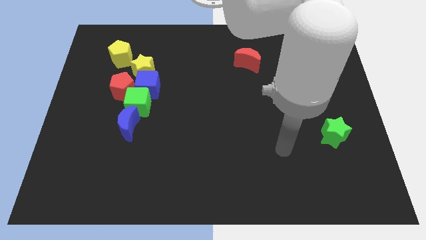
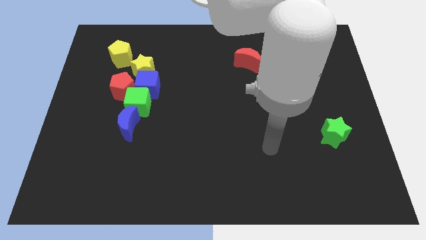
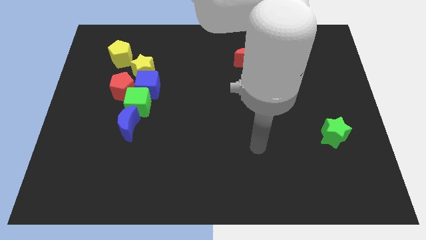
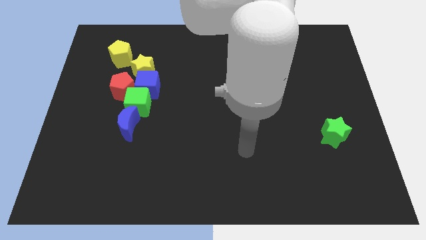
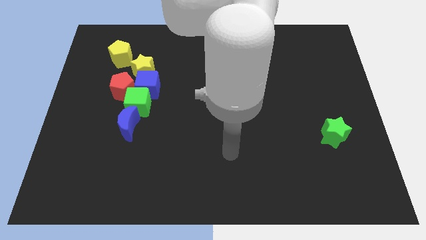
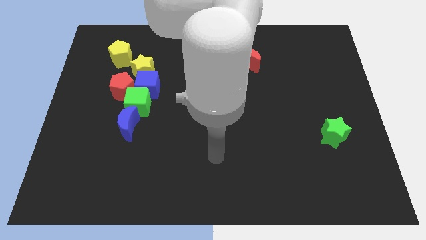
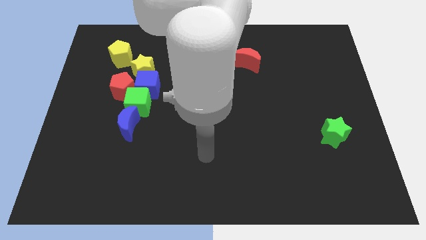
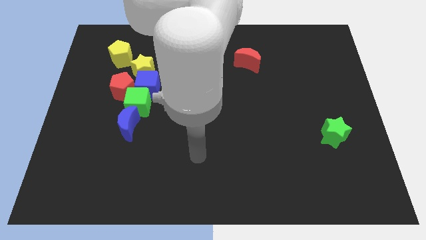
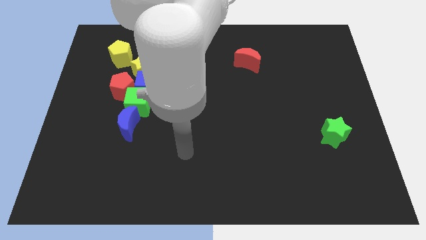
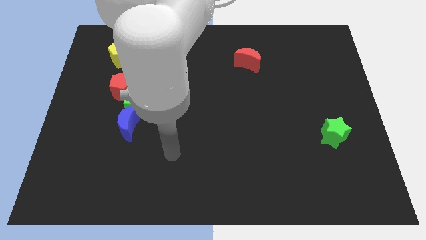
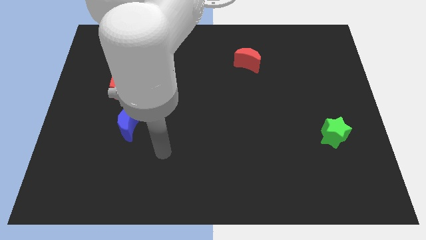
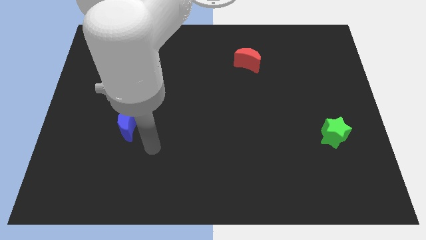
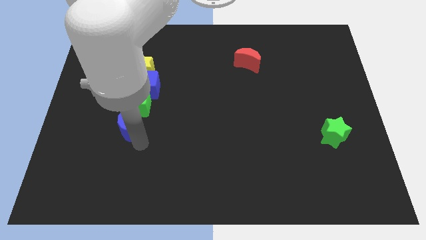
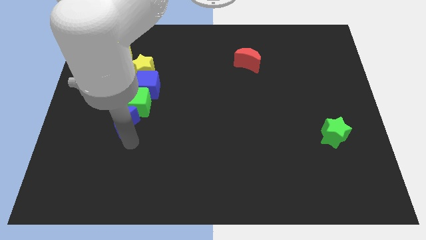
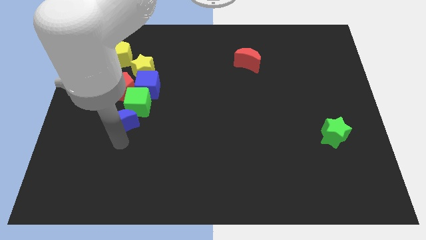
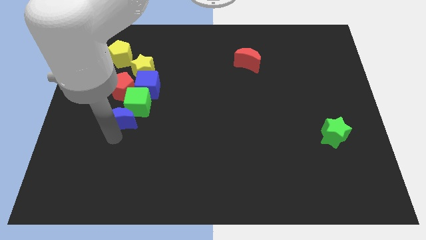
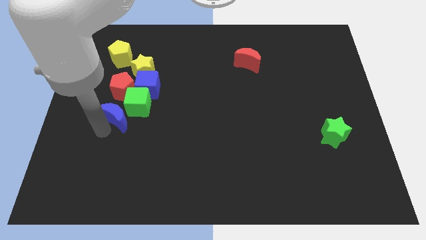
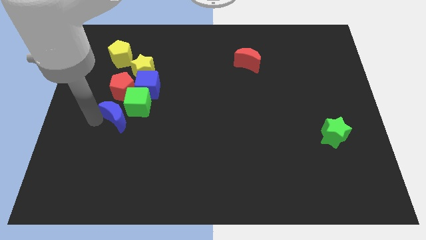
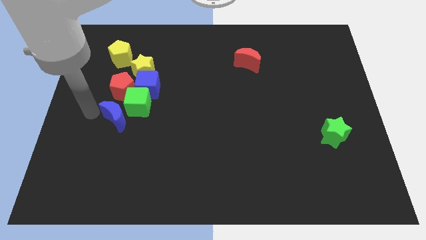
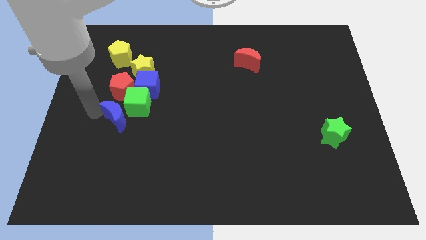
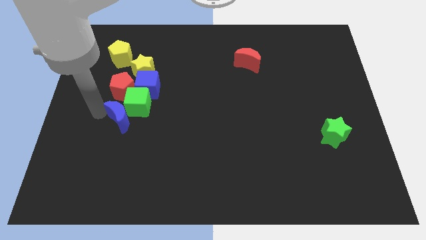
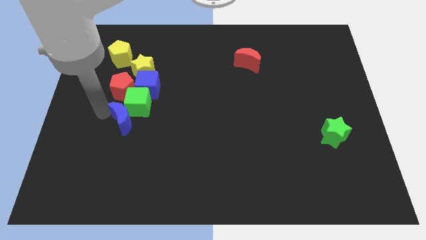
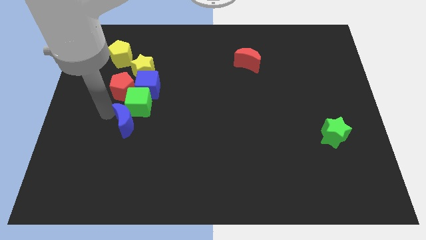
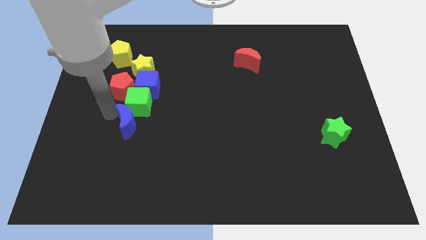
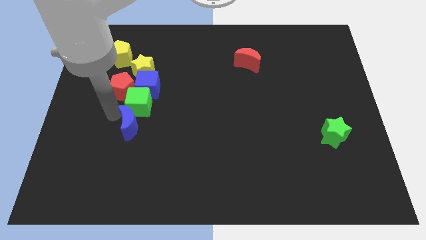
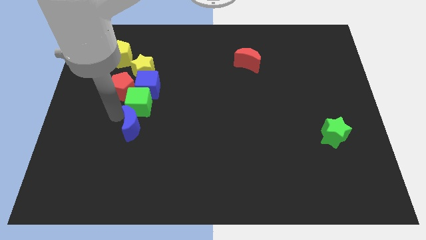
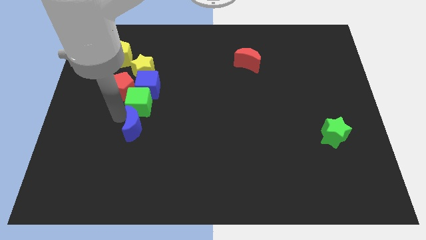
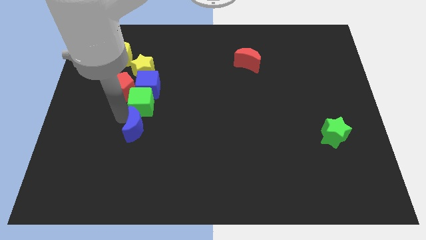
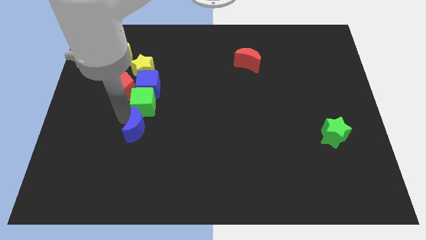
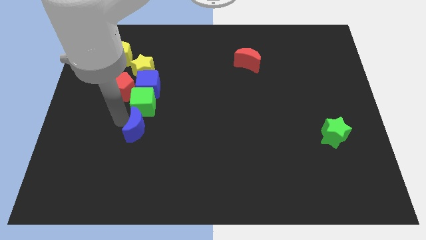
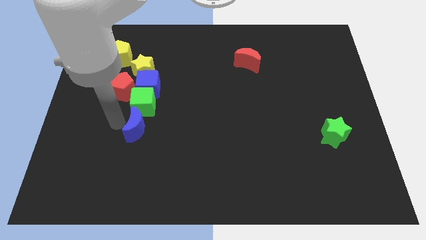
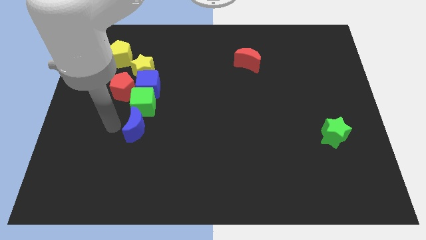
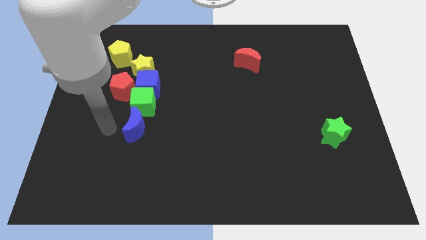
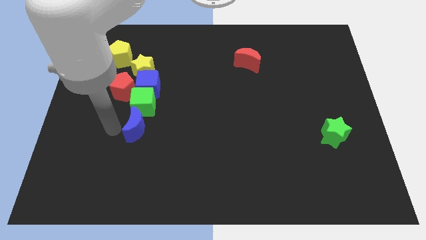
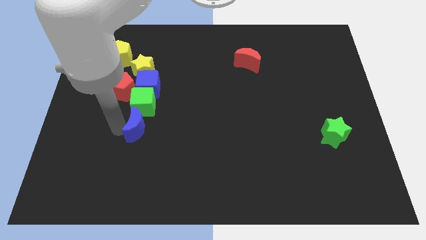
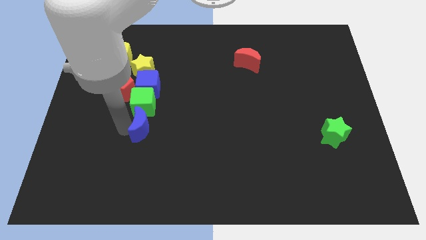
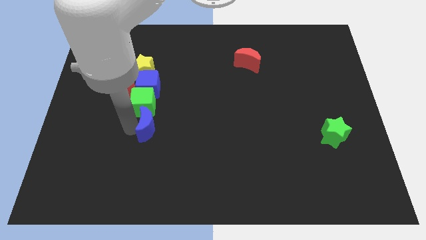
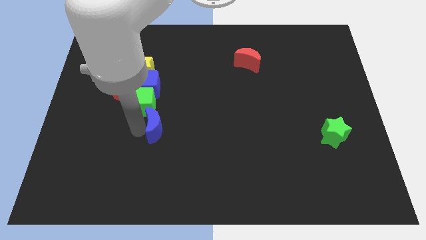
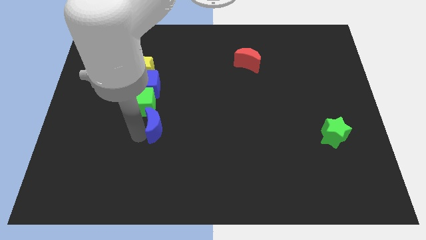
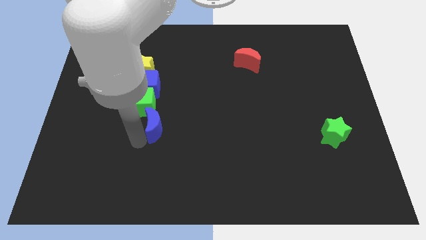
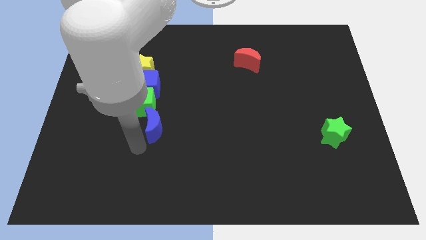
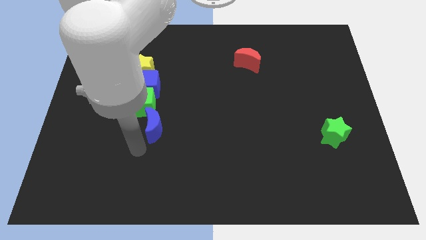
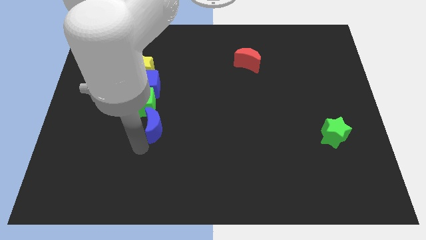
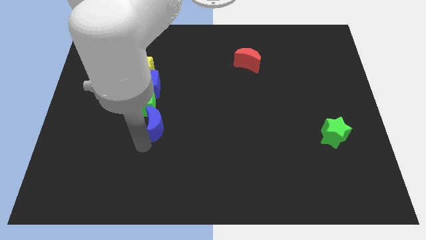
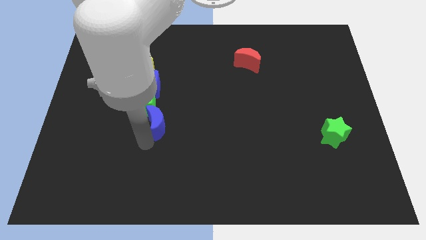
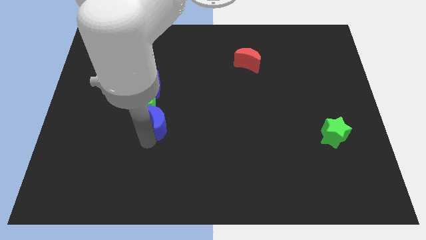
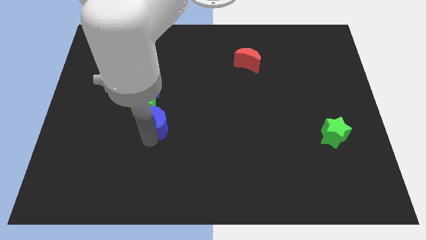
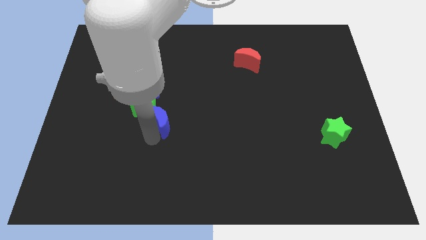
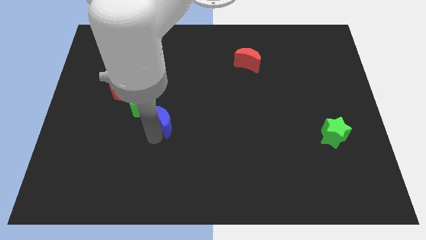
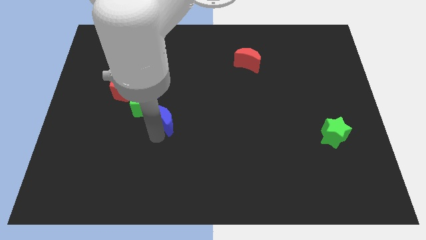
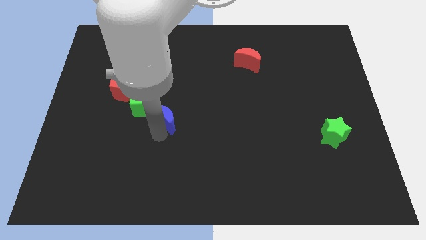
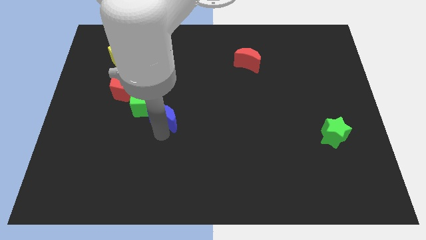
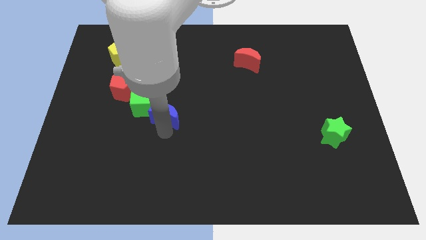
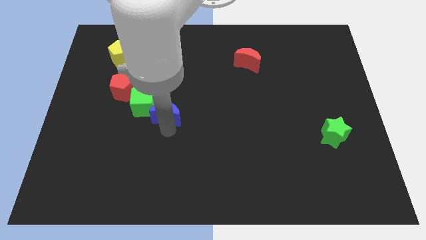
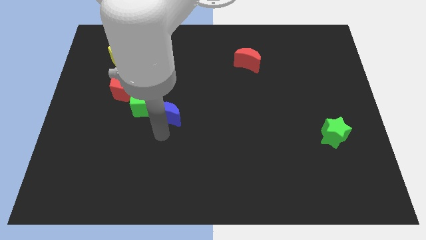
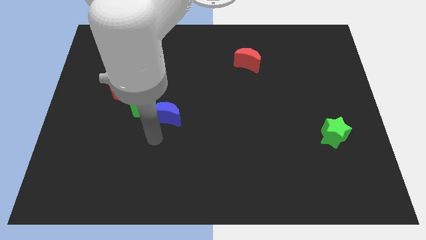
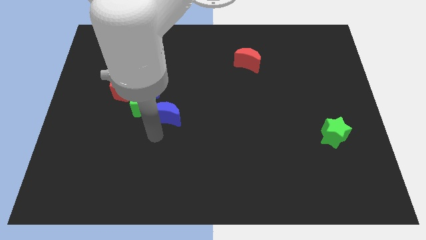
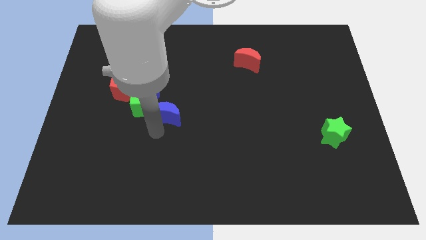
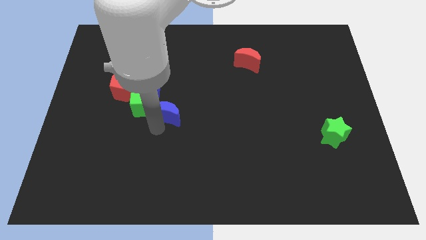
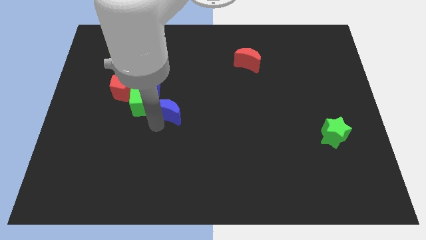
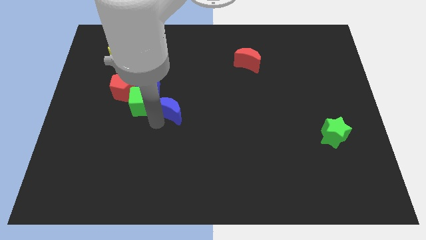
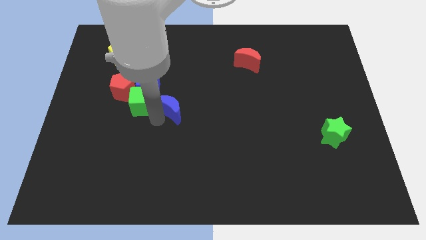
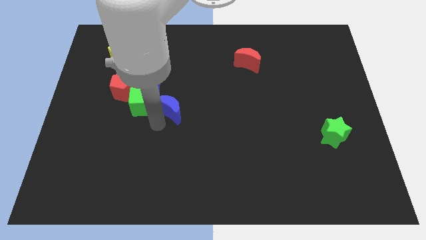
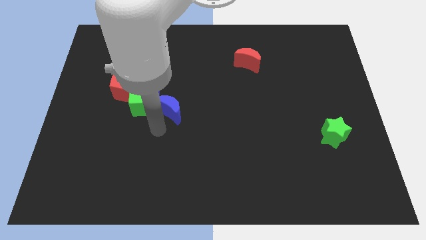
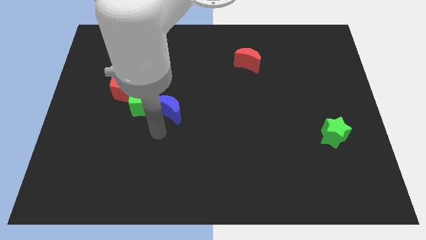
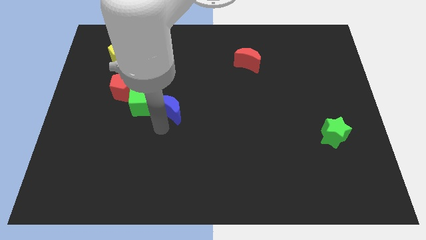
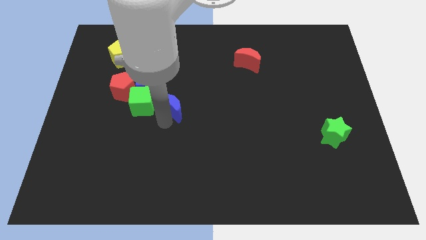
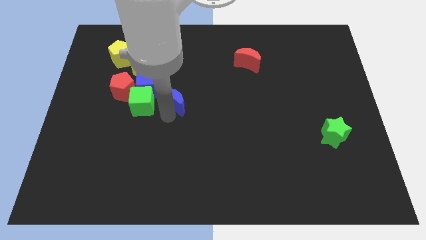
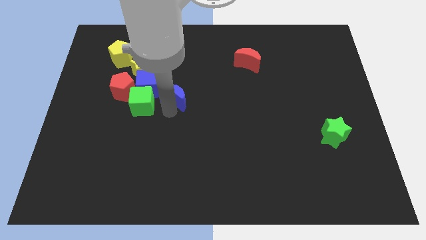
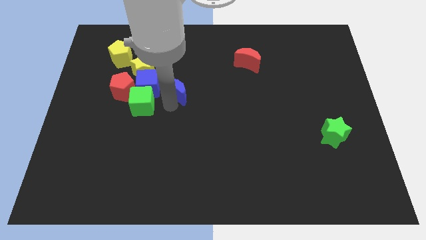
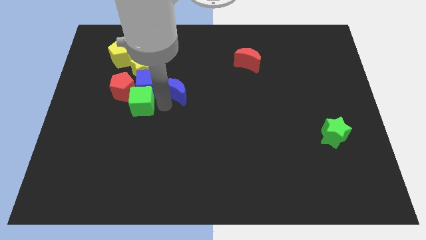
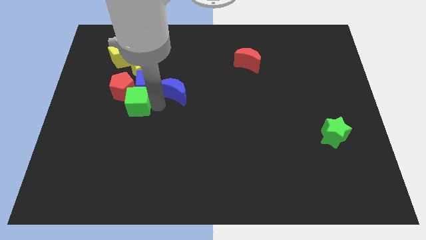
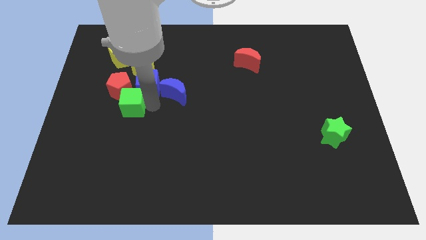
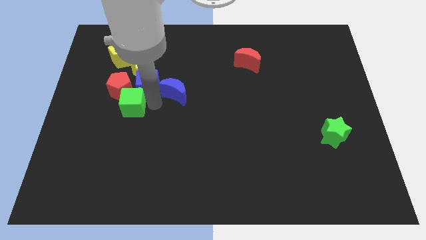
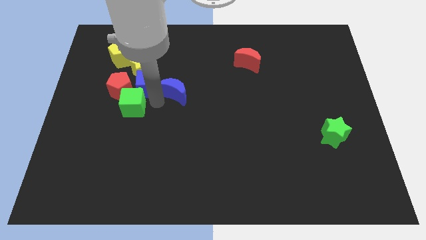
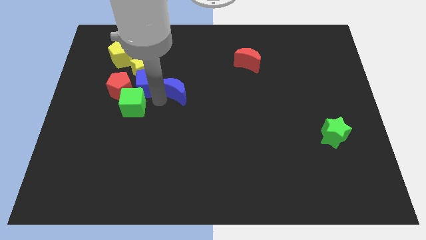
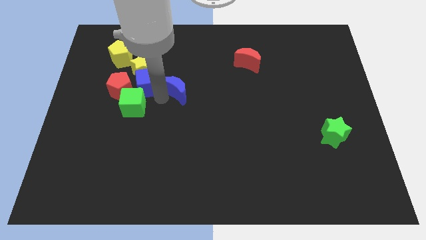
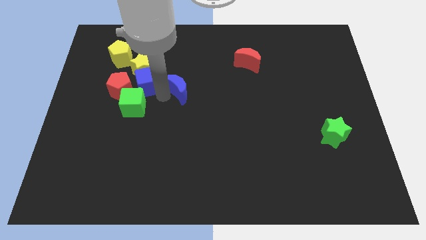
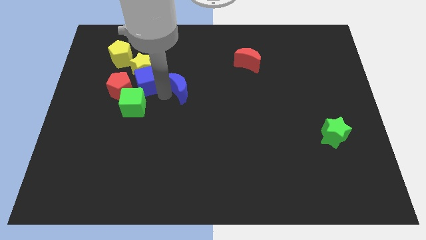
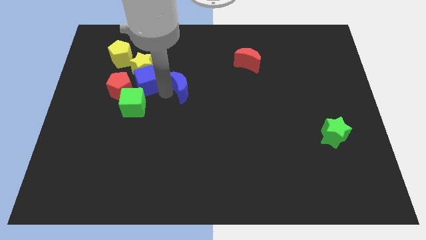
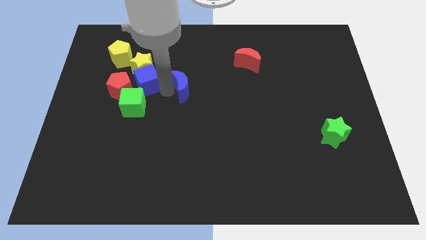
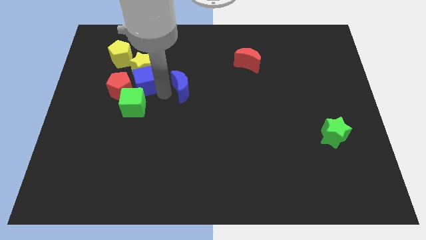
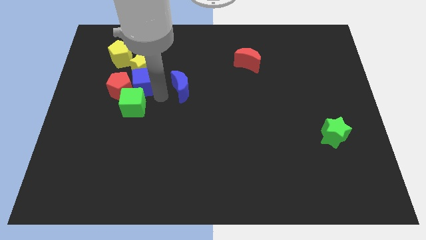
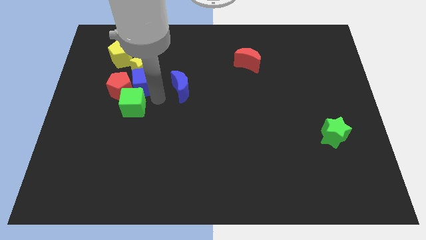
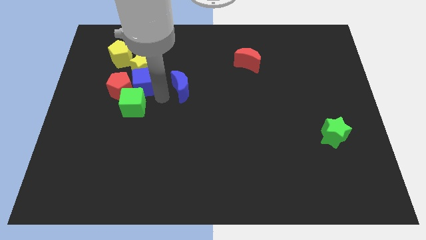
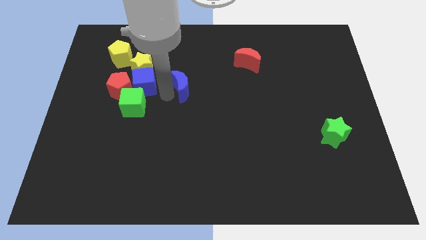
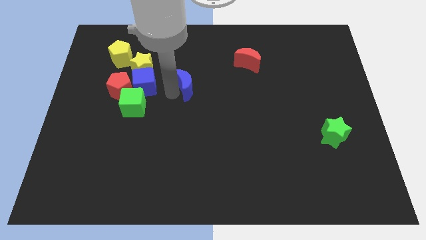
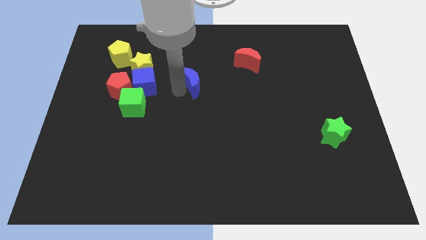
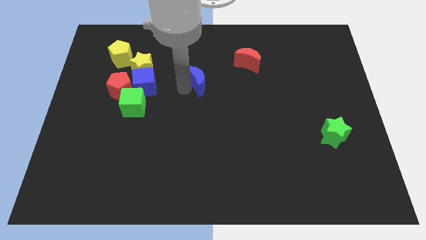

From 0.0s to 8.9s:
push the blue moon upwards and then right
